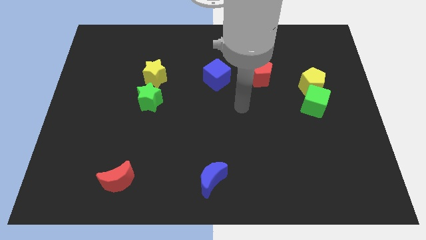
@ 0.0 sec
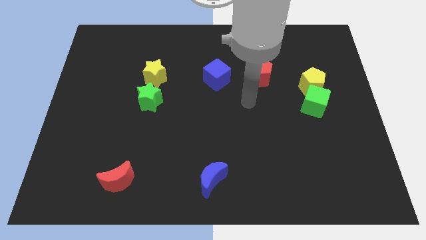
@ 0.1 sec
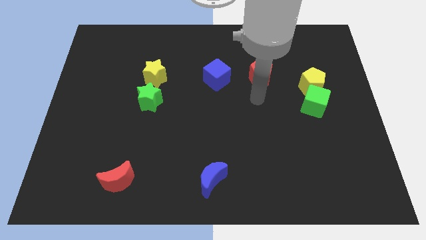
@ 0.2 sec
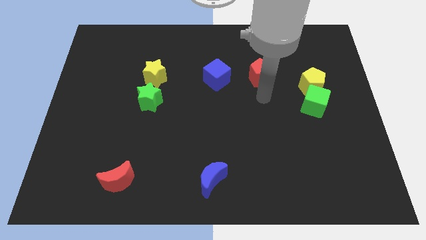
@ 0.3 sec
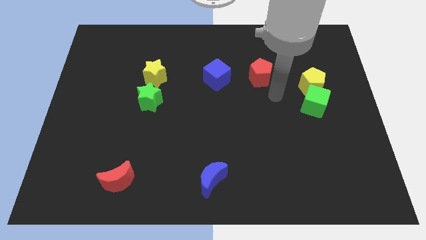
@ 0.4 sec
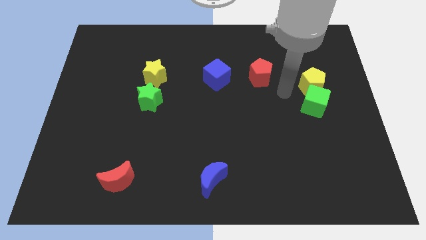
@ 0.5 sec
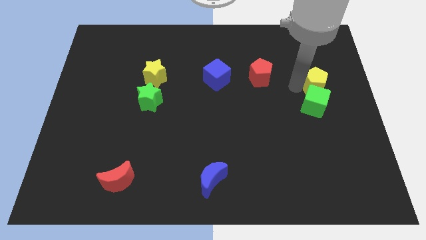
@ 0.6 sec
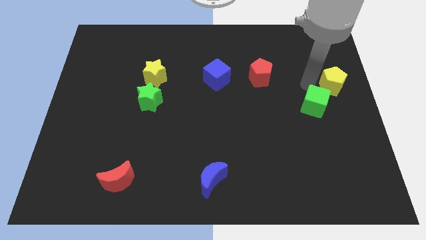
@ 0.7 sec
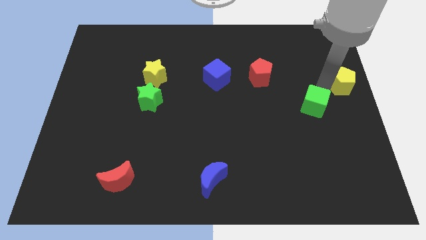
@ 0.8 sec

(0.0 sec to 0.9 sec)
move the green cube away from the yellow pentagon

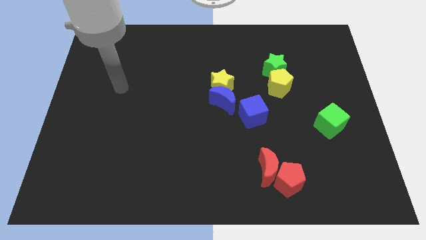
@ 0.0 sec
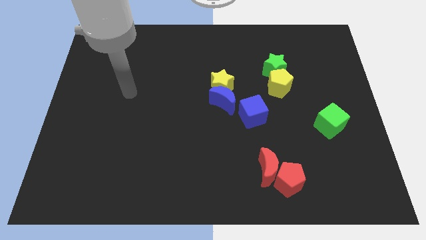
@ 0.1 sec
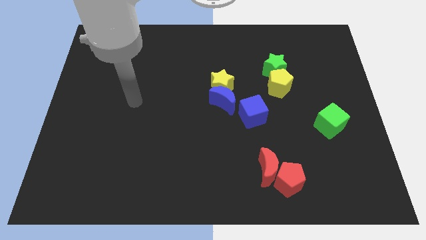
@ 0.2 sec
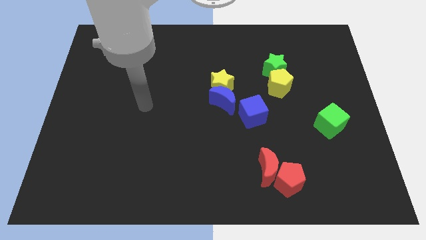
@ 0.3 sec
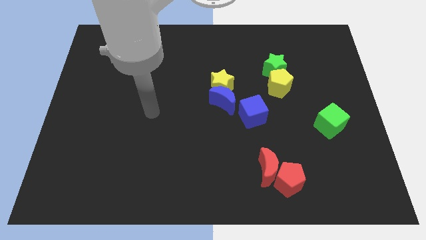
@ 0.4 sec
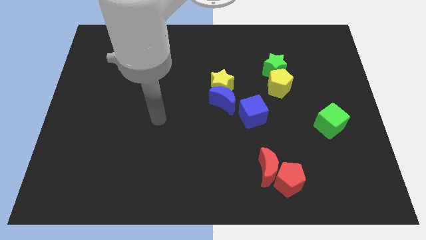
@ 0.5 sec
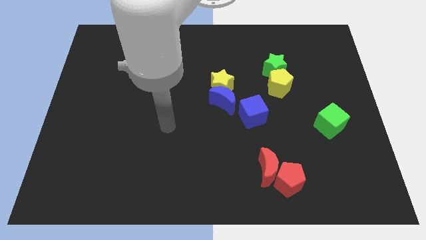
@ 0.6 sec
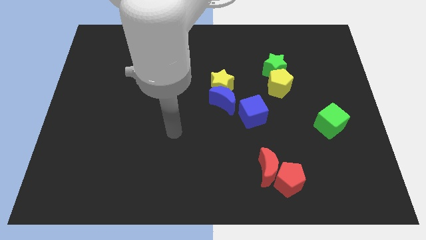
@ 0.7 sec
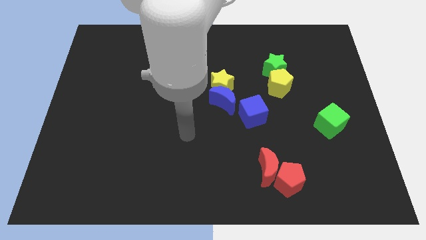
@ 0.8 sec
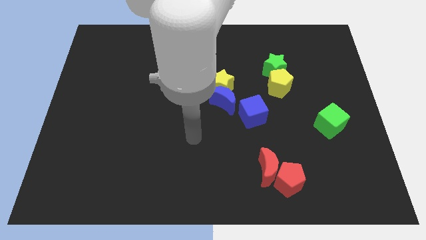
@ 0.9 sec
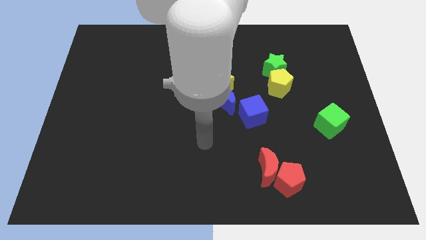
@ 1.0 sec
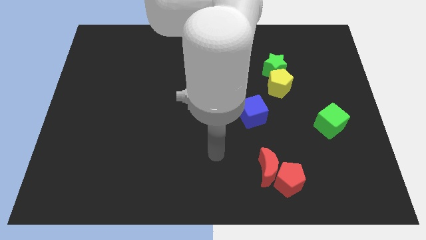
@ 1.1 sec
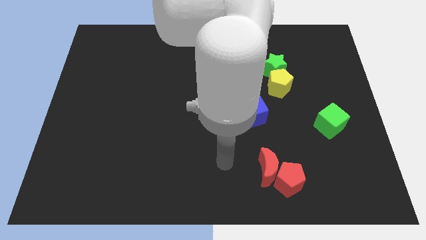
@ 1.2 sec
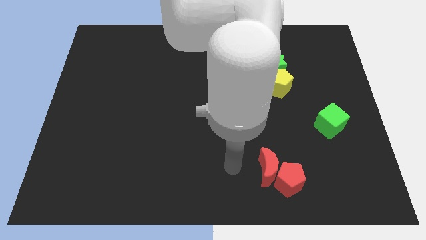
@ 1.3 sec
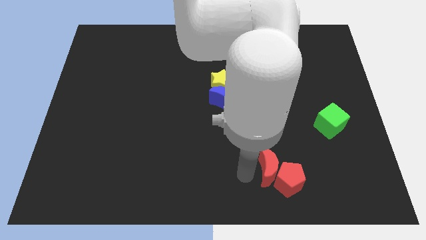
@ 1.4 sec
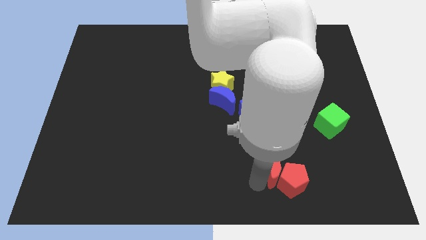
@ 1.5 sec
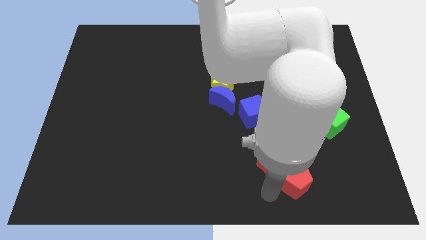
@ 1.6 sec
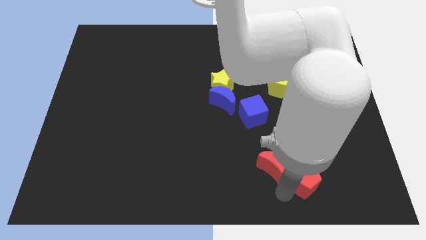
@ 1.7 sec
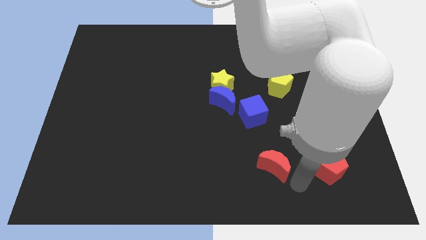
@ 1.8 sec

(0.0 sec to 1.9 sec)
pull the red moon apart from the red pentagon

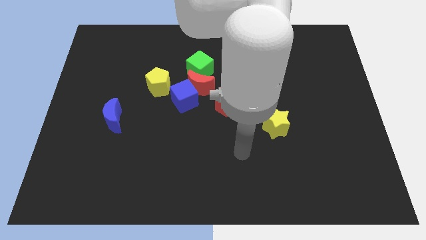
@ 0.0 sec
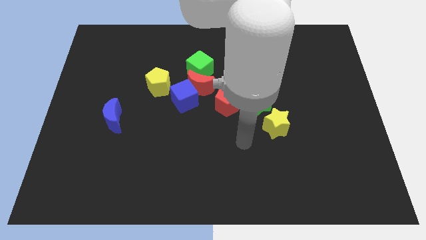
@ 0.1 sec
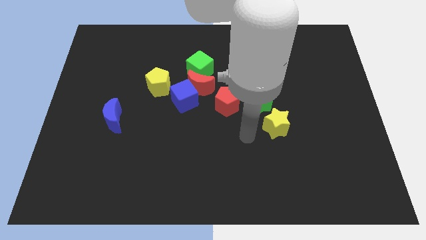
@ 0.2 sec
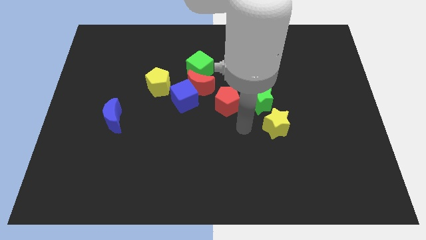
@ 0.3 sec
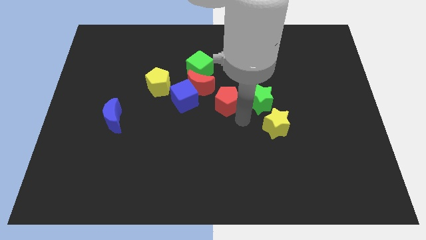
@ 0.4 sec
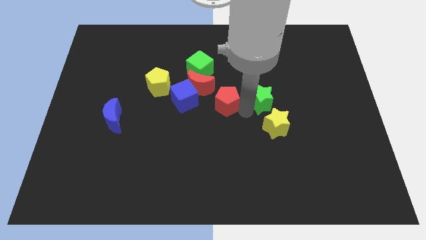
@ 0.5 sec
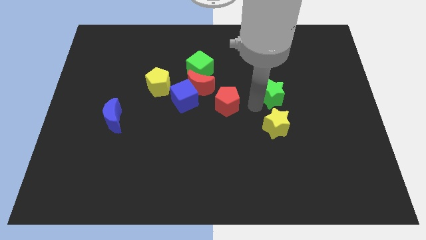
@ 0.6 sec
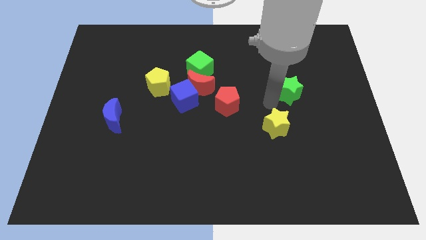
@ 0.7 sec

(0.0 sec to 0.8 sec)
pull the yellow star apart from the green star

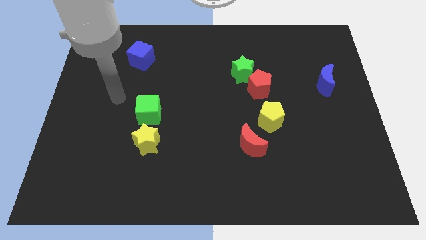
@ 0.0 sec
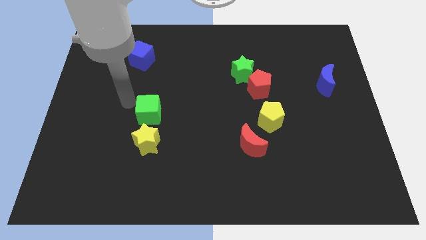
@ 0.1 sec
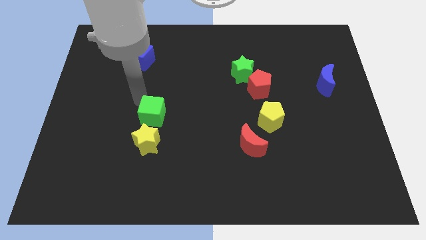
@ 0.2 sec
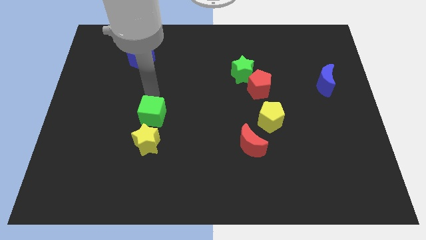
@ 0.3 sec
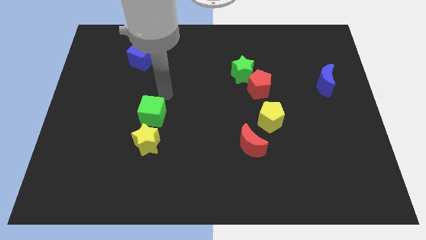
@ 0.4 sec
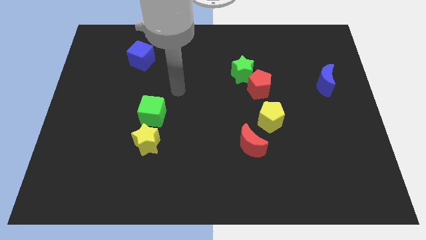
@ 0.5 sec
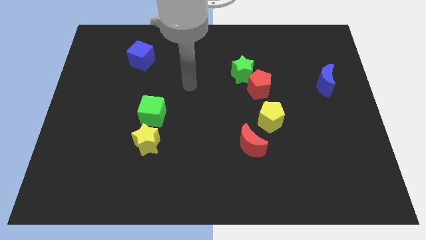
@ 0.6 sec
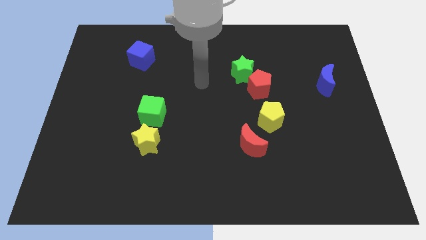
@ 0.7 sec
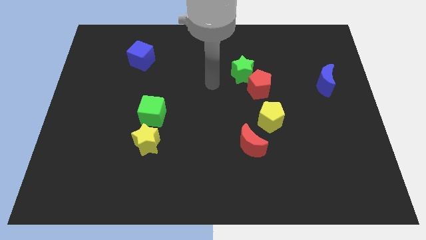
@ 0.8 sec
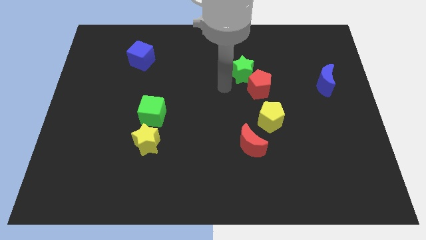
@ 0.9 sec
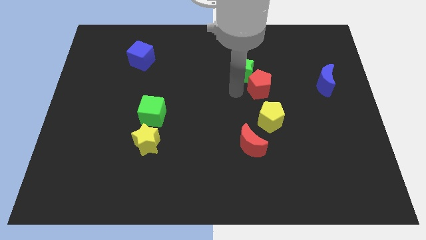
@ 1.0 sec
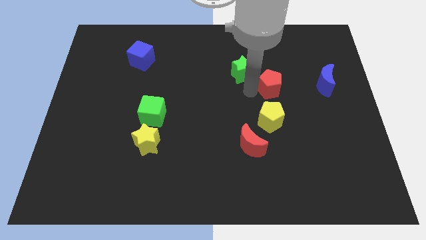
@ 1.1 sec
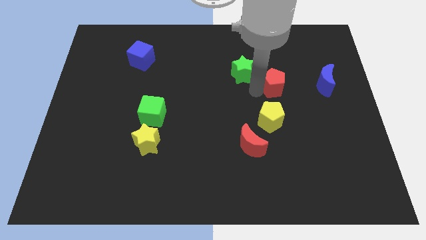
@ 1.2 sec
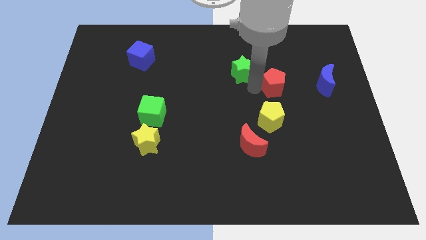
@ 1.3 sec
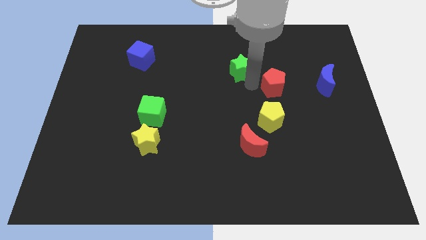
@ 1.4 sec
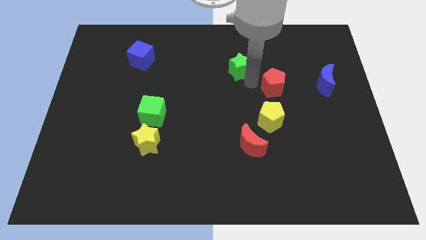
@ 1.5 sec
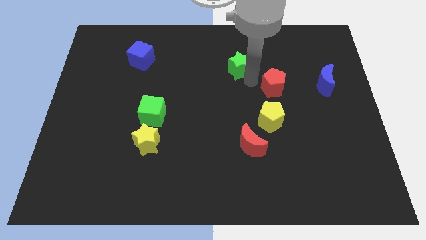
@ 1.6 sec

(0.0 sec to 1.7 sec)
move the green star away from the red pentagon

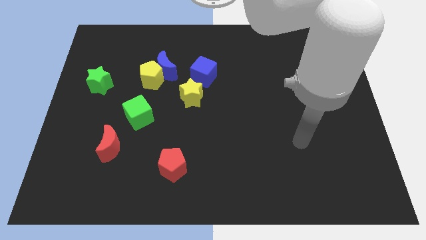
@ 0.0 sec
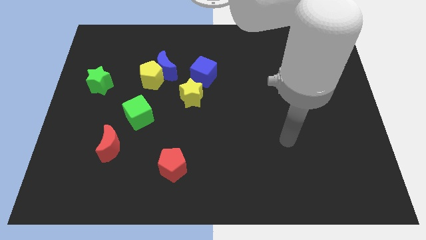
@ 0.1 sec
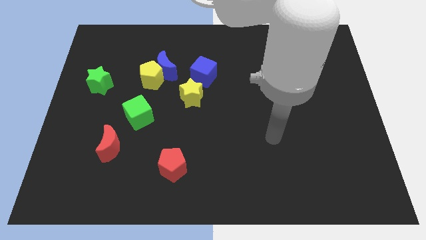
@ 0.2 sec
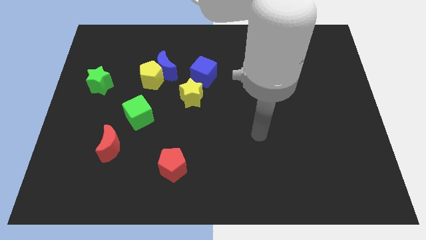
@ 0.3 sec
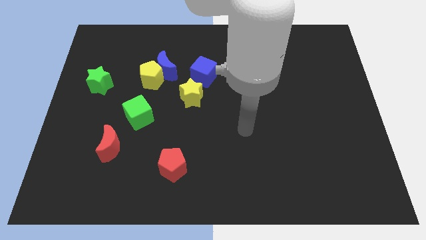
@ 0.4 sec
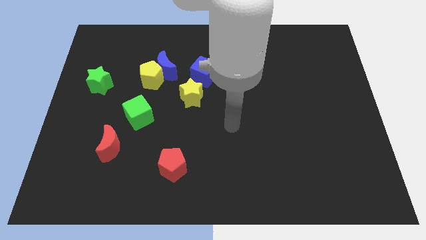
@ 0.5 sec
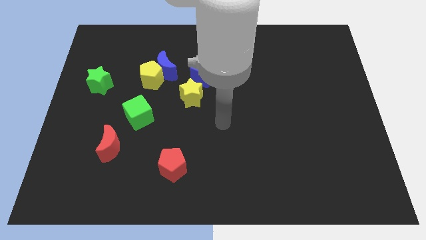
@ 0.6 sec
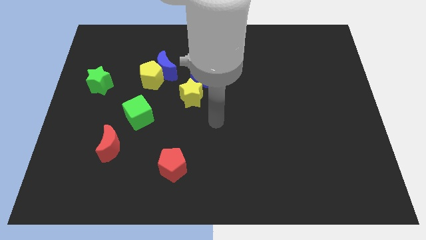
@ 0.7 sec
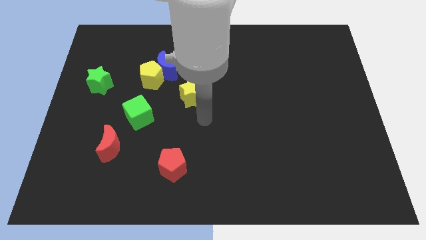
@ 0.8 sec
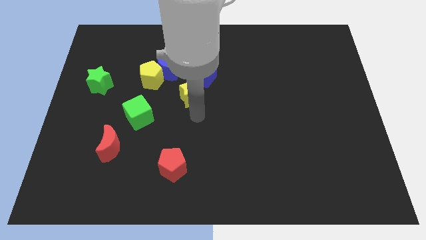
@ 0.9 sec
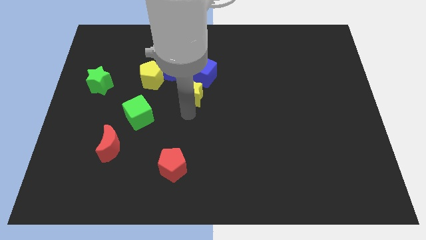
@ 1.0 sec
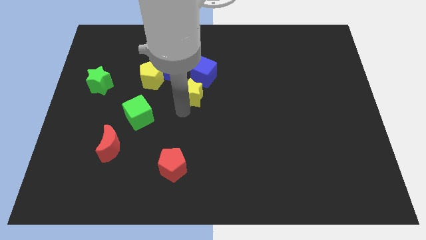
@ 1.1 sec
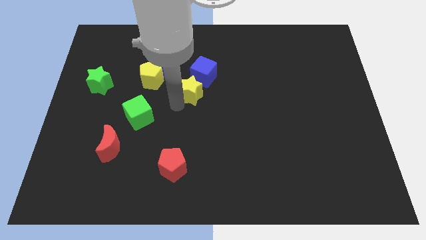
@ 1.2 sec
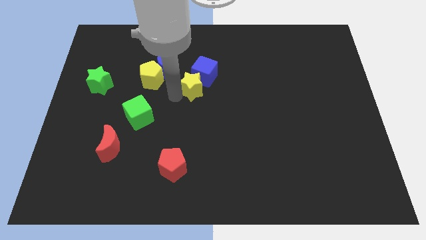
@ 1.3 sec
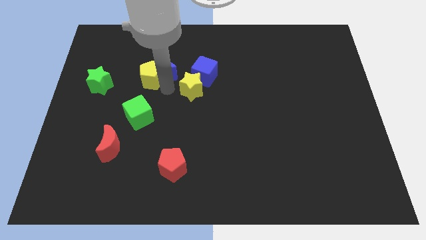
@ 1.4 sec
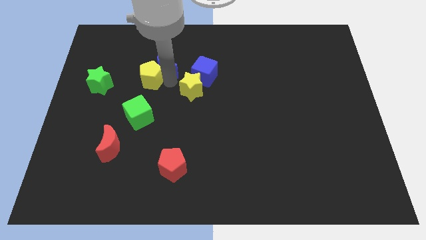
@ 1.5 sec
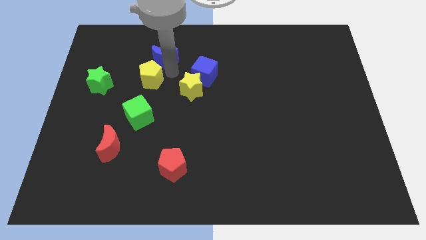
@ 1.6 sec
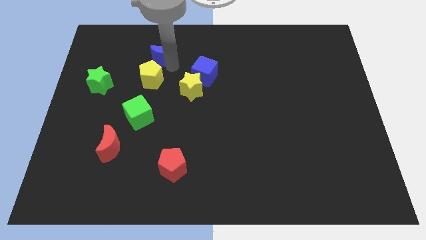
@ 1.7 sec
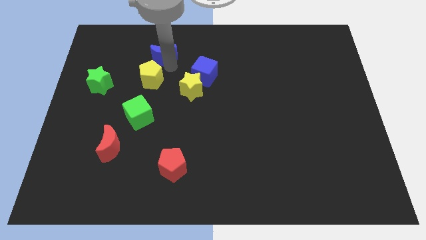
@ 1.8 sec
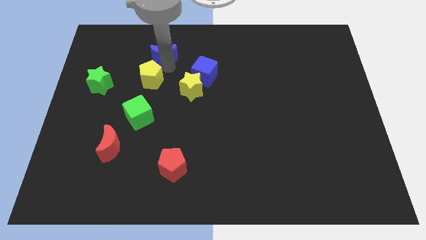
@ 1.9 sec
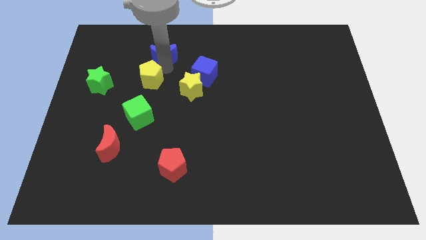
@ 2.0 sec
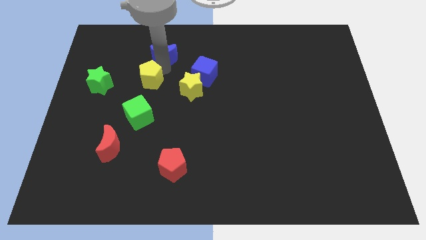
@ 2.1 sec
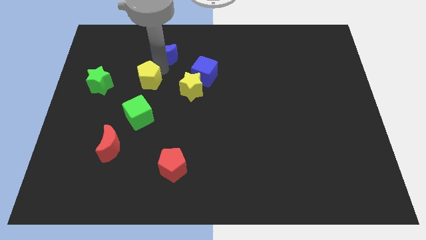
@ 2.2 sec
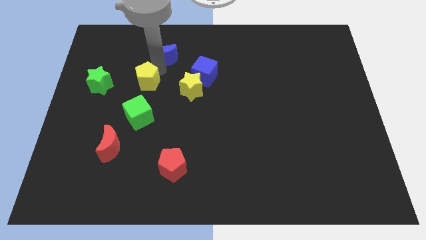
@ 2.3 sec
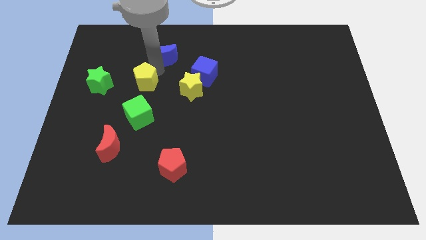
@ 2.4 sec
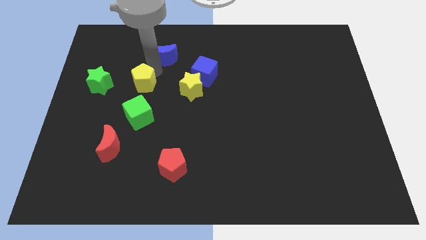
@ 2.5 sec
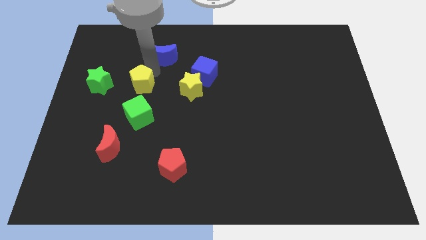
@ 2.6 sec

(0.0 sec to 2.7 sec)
separate the yellow pentagon from the blue moon

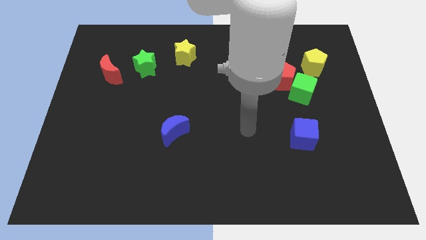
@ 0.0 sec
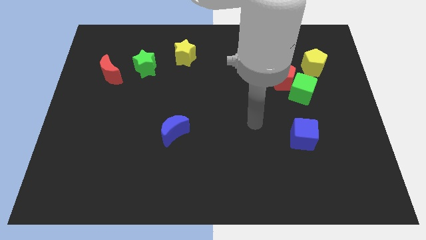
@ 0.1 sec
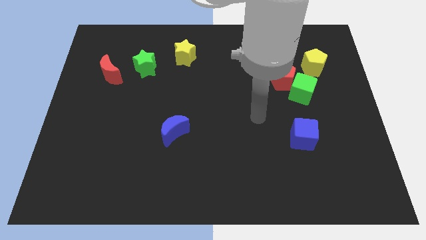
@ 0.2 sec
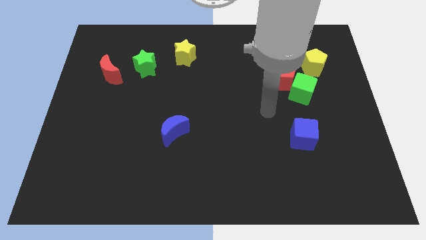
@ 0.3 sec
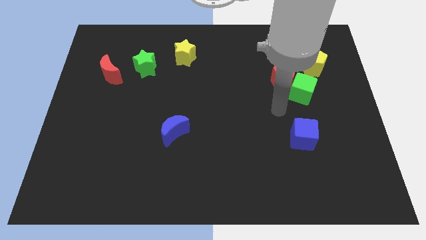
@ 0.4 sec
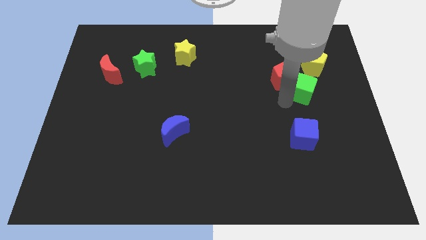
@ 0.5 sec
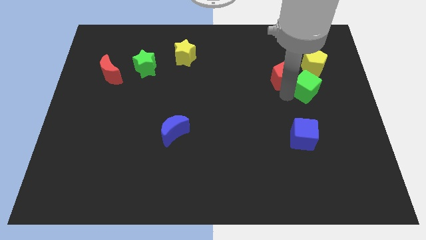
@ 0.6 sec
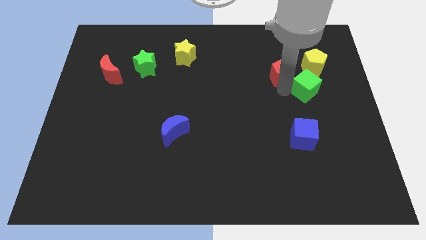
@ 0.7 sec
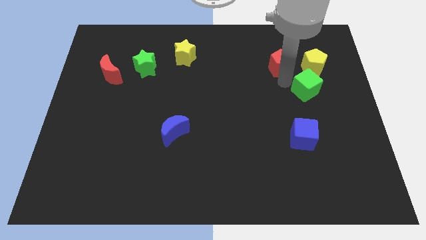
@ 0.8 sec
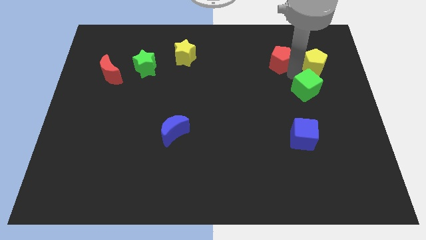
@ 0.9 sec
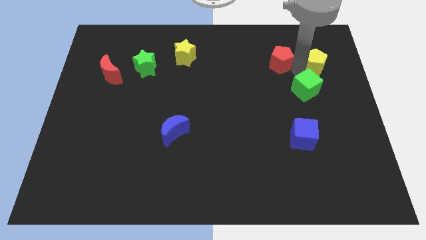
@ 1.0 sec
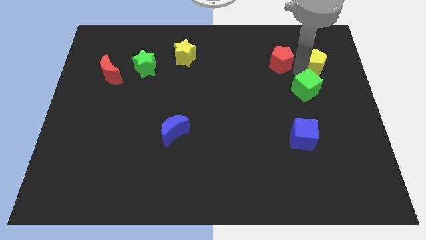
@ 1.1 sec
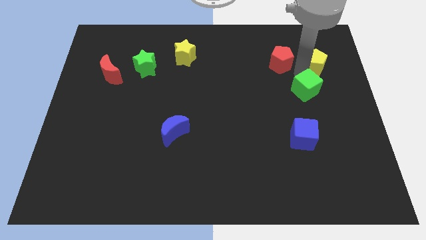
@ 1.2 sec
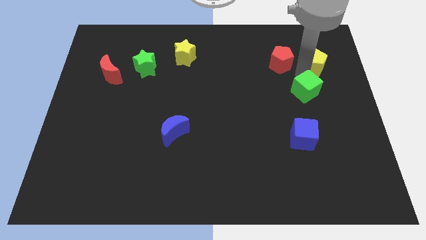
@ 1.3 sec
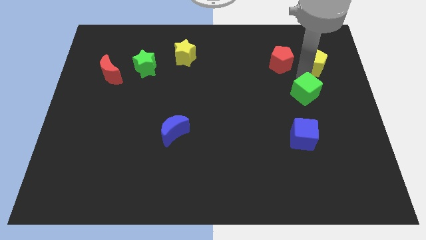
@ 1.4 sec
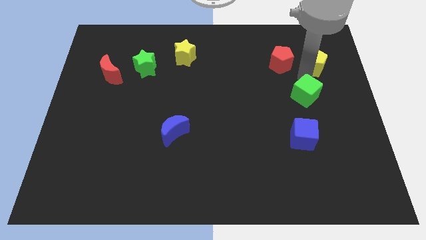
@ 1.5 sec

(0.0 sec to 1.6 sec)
separate the green cube from the red pentagon and yellow pentagon
